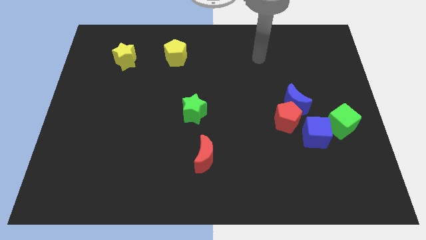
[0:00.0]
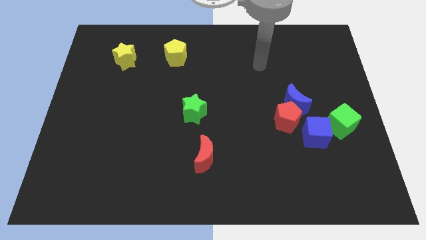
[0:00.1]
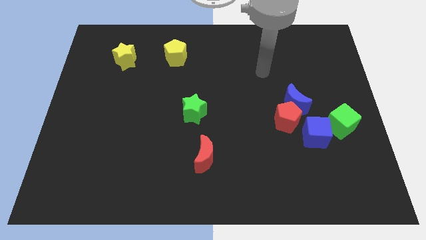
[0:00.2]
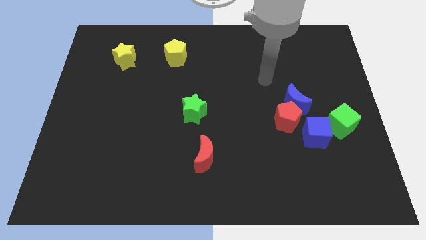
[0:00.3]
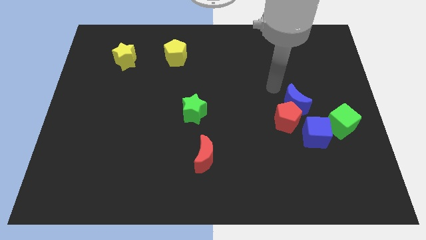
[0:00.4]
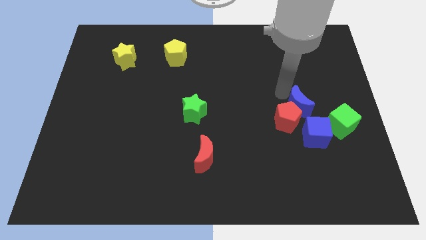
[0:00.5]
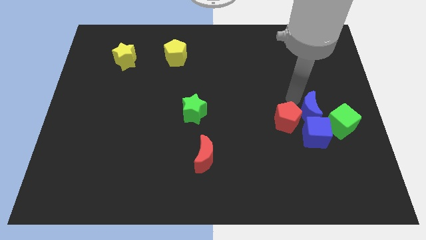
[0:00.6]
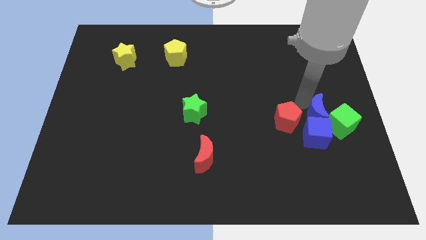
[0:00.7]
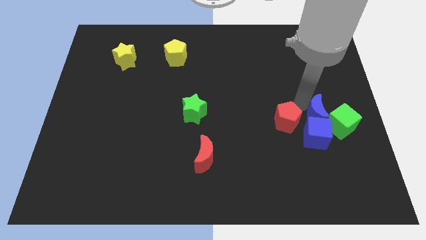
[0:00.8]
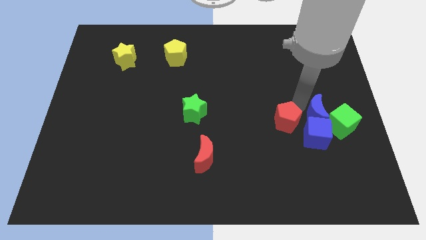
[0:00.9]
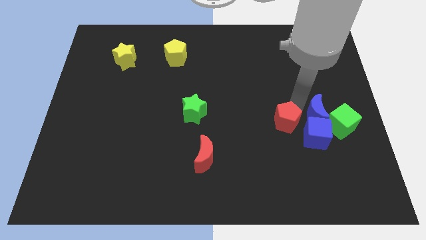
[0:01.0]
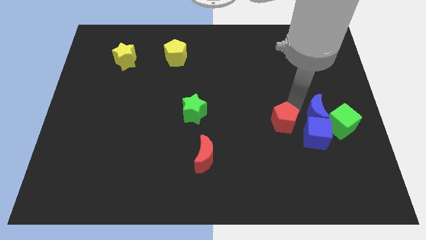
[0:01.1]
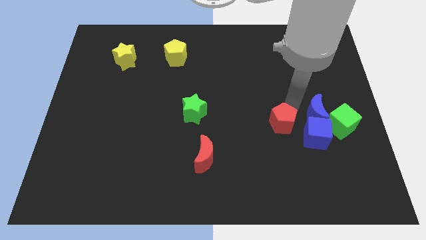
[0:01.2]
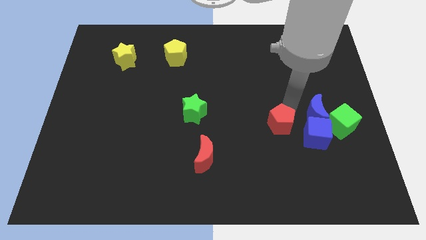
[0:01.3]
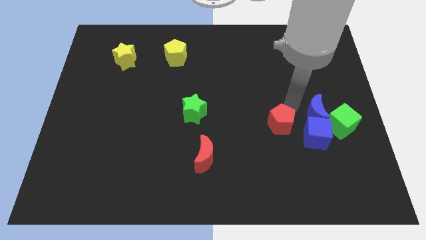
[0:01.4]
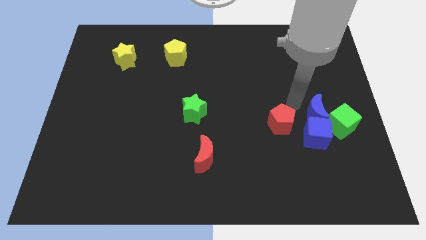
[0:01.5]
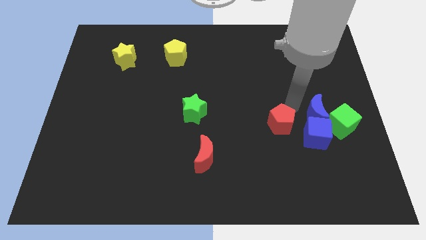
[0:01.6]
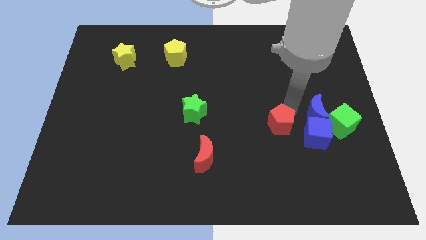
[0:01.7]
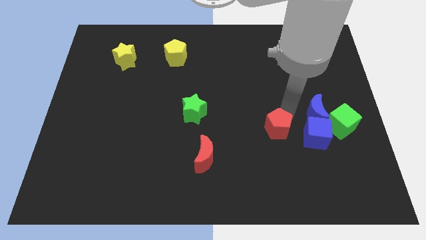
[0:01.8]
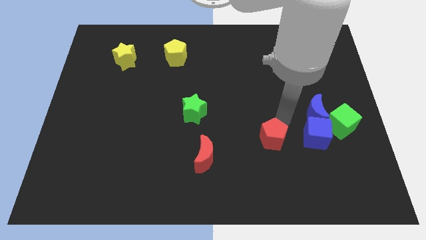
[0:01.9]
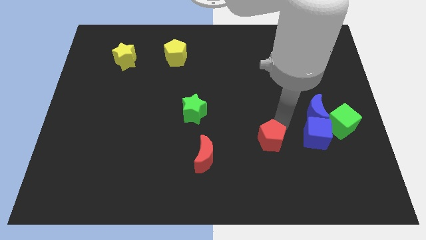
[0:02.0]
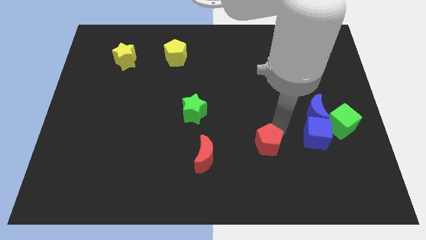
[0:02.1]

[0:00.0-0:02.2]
slide the red pentagon a bit downwards and then left

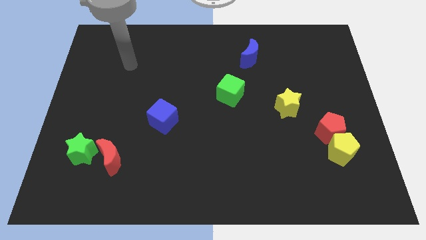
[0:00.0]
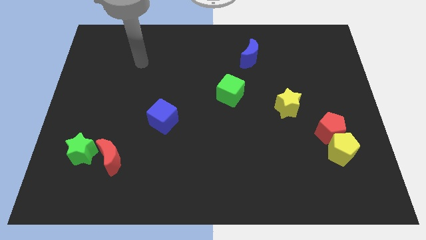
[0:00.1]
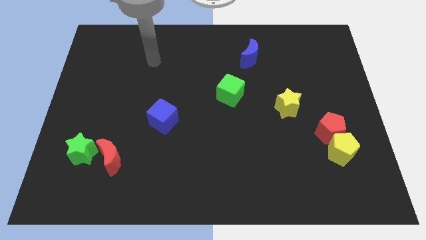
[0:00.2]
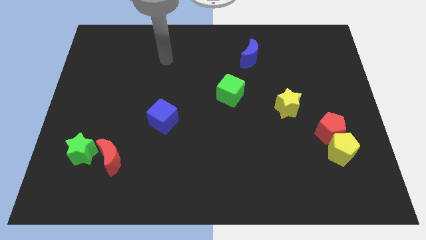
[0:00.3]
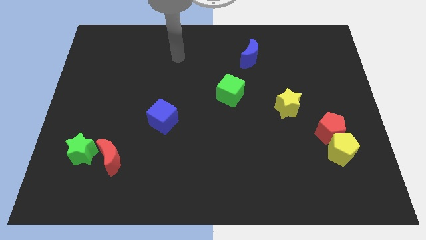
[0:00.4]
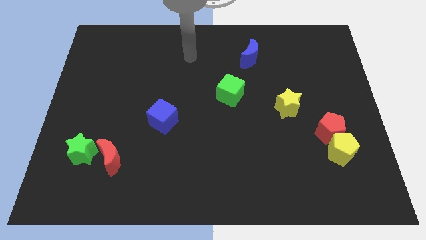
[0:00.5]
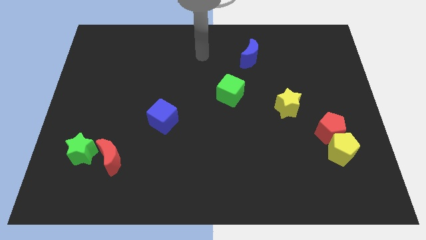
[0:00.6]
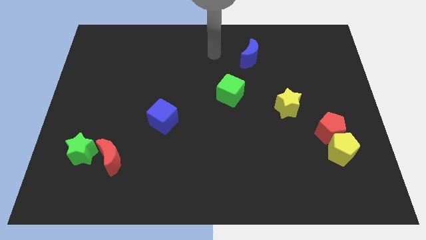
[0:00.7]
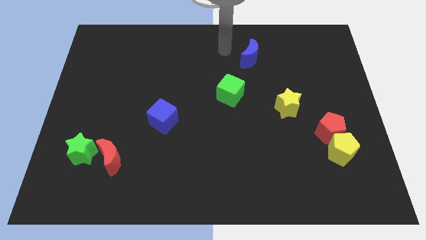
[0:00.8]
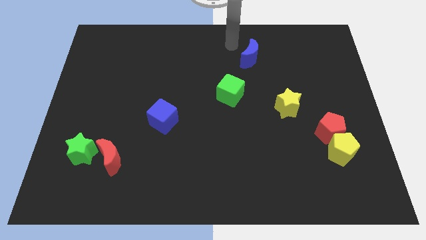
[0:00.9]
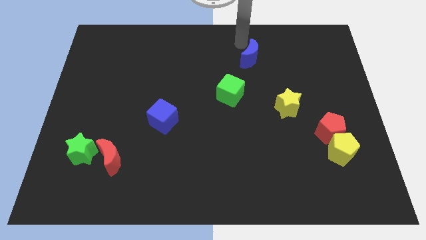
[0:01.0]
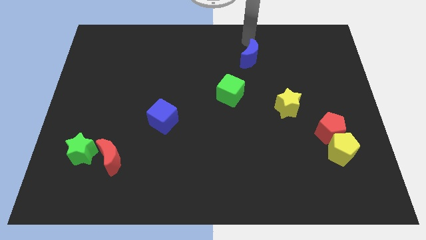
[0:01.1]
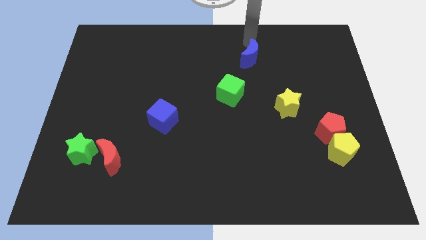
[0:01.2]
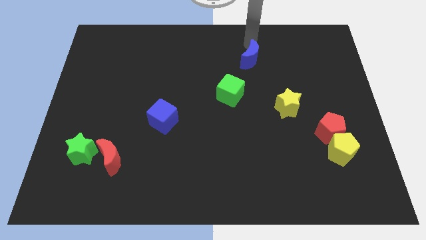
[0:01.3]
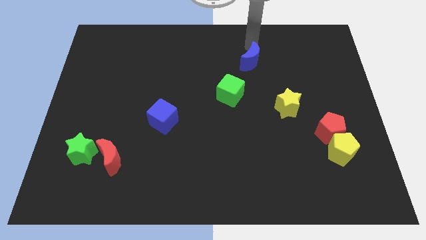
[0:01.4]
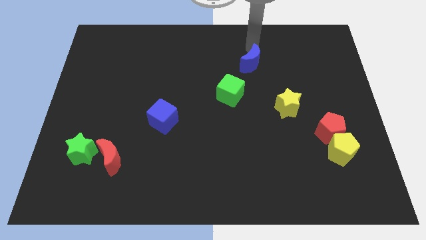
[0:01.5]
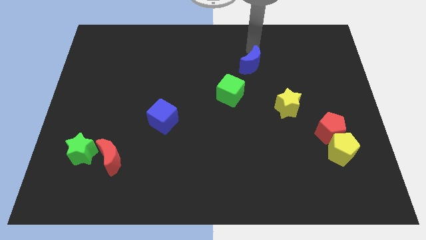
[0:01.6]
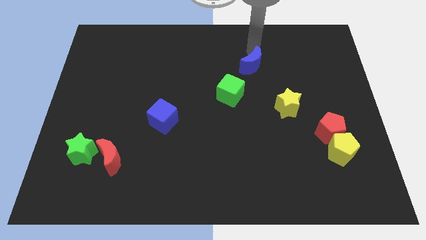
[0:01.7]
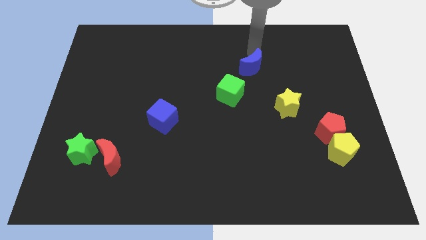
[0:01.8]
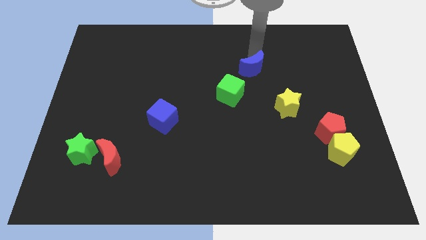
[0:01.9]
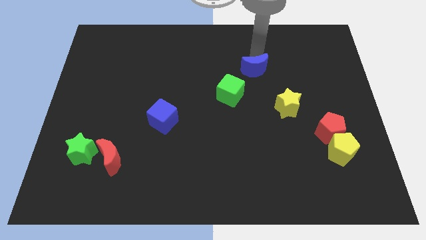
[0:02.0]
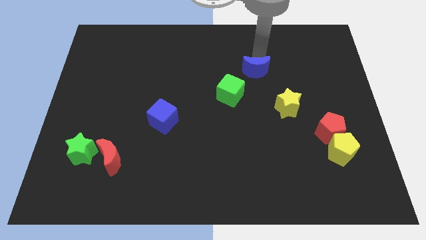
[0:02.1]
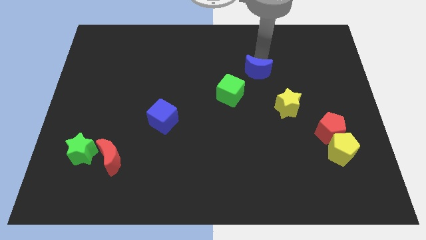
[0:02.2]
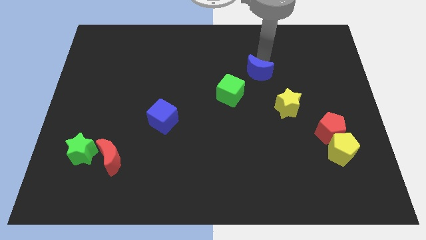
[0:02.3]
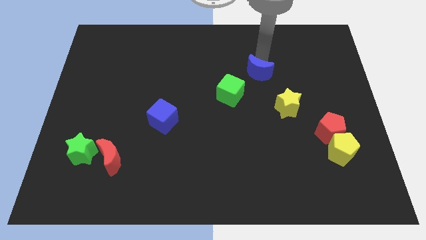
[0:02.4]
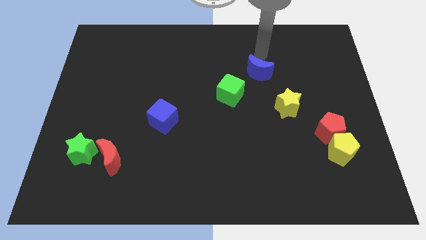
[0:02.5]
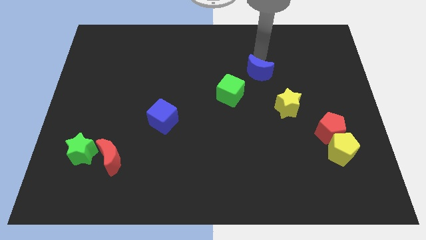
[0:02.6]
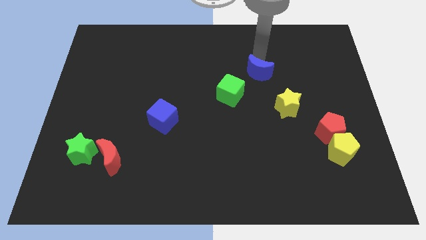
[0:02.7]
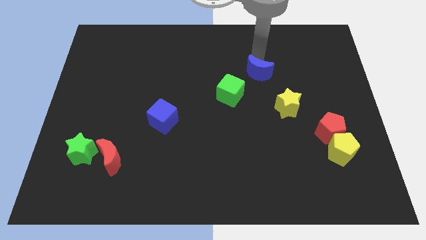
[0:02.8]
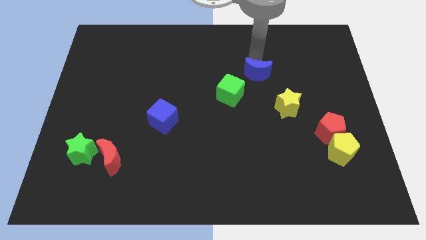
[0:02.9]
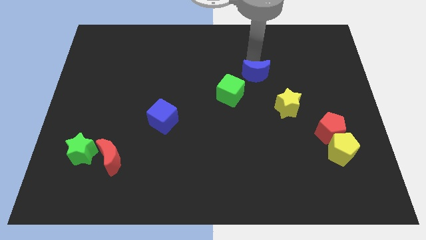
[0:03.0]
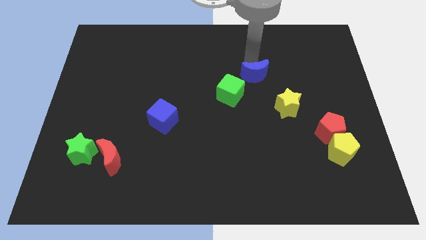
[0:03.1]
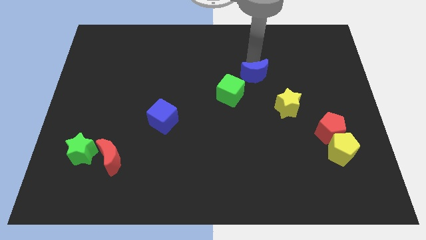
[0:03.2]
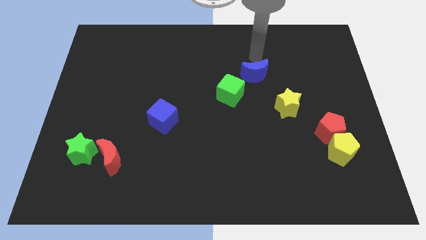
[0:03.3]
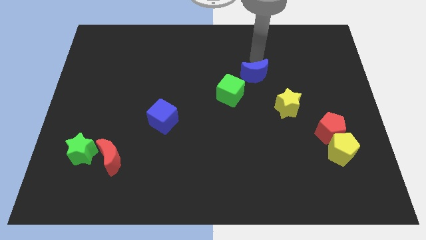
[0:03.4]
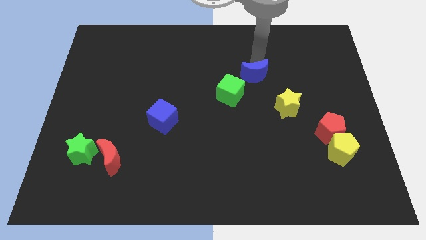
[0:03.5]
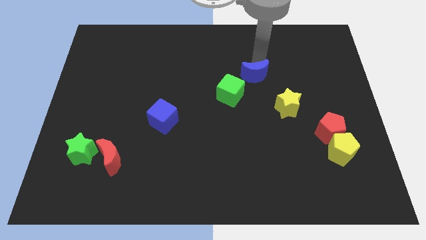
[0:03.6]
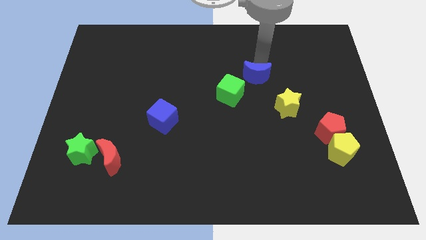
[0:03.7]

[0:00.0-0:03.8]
push the blue moon slightly downwards

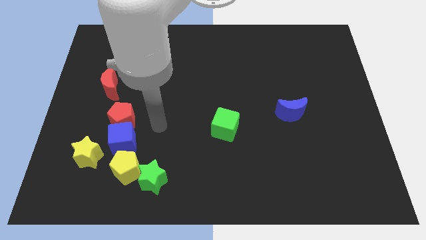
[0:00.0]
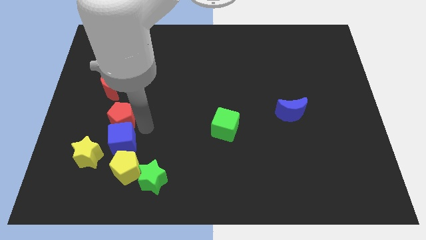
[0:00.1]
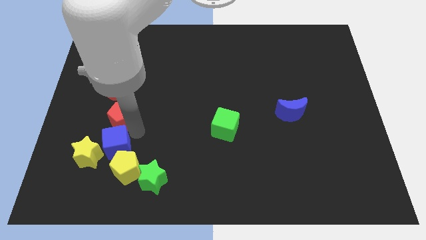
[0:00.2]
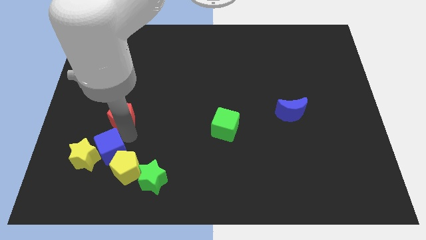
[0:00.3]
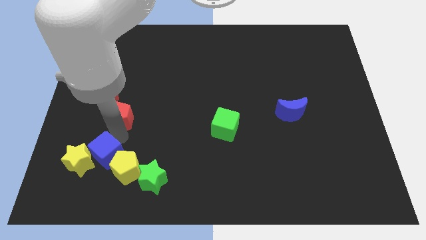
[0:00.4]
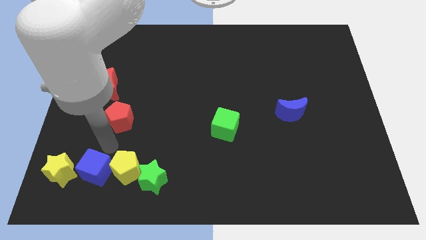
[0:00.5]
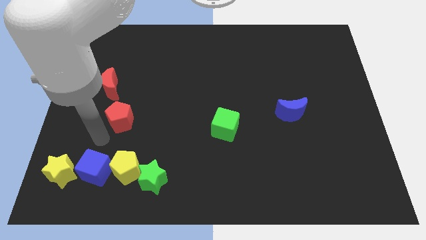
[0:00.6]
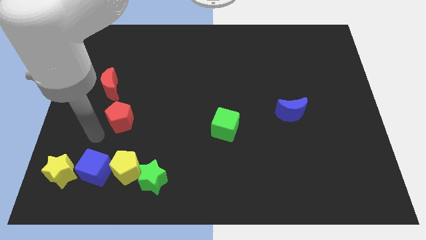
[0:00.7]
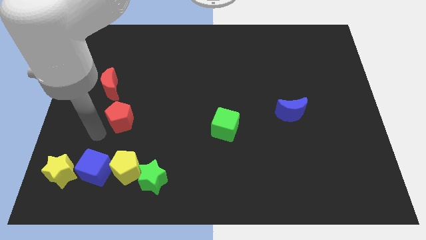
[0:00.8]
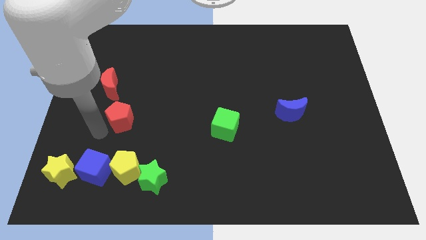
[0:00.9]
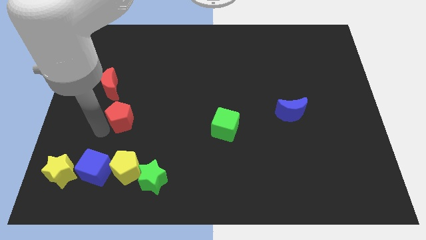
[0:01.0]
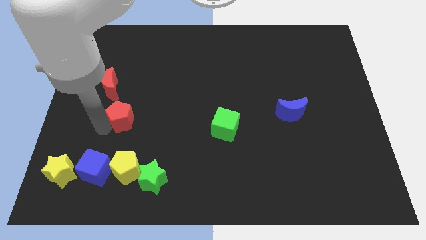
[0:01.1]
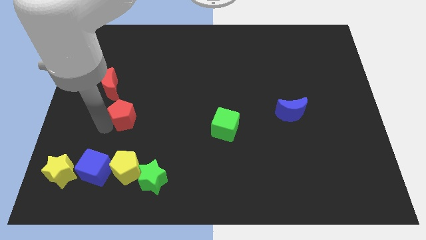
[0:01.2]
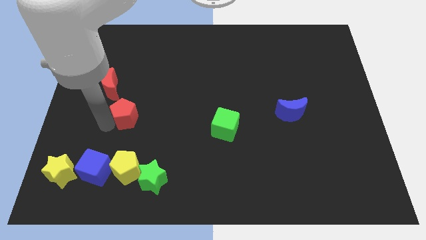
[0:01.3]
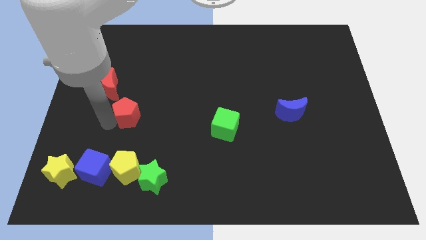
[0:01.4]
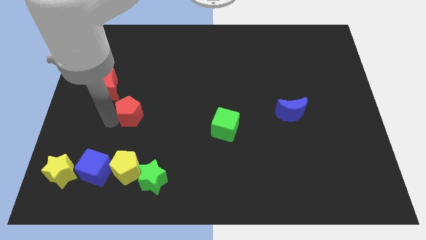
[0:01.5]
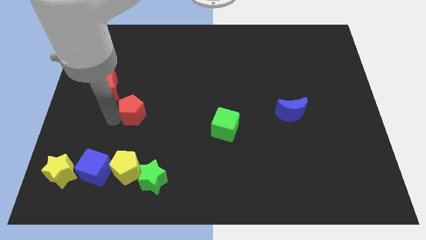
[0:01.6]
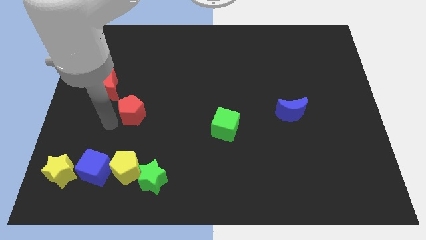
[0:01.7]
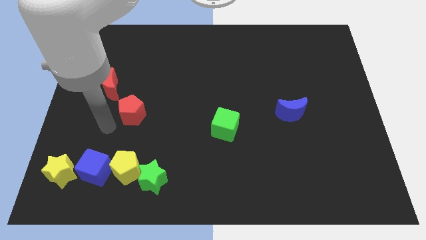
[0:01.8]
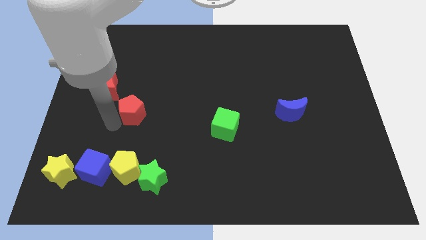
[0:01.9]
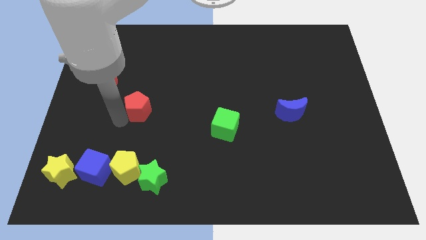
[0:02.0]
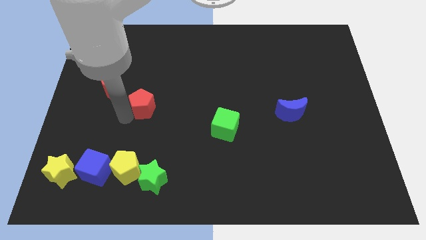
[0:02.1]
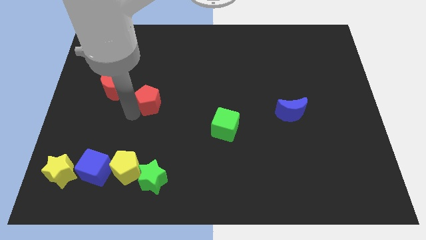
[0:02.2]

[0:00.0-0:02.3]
slide the red pentagon up and right a bit
